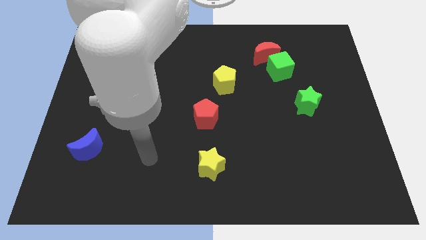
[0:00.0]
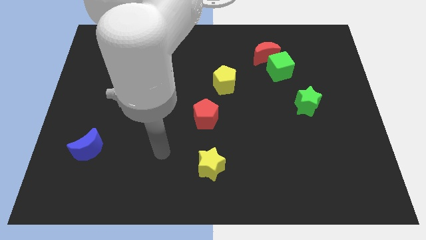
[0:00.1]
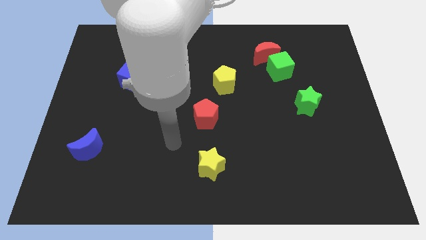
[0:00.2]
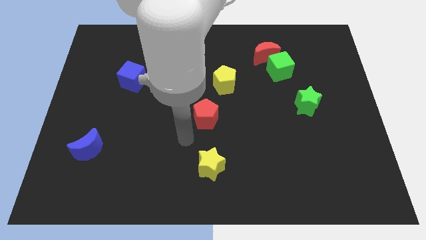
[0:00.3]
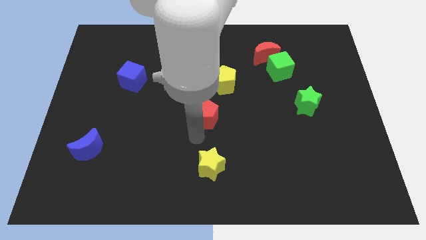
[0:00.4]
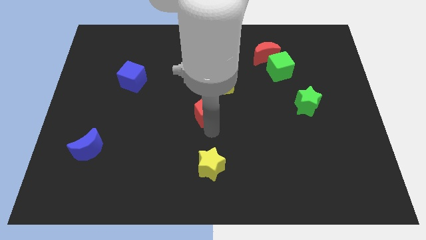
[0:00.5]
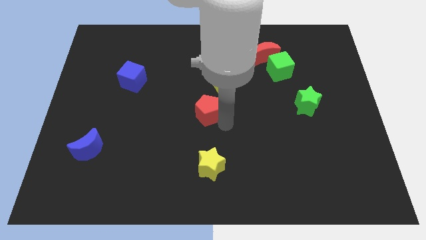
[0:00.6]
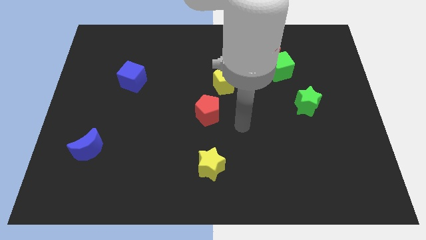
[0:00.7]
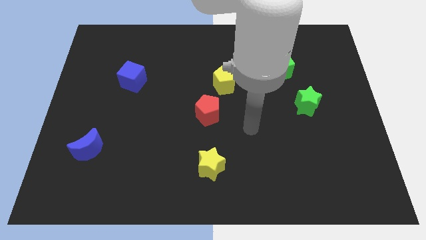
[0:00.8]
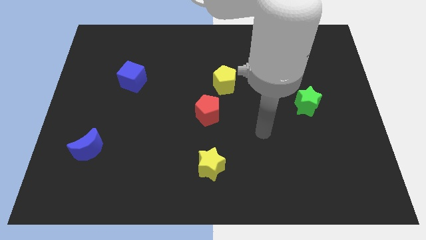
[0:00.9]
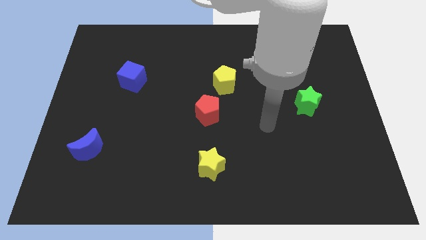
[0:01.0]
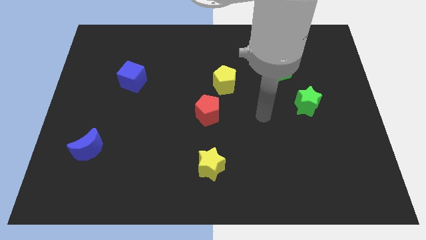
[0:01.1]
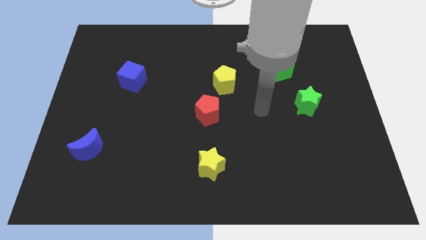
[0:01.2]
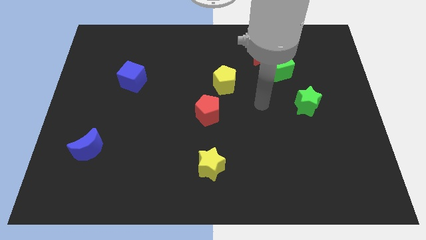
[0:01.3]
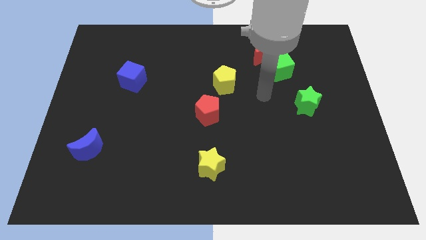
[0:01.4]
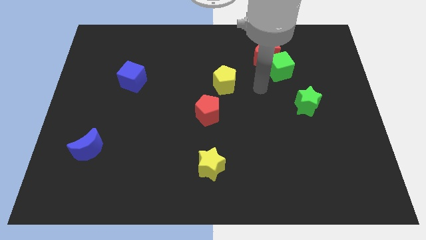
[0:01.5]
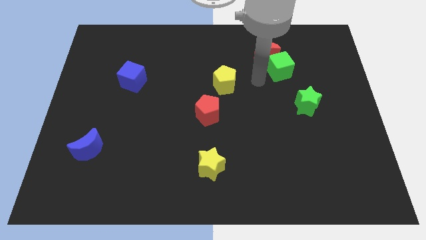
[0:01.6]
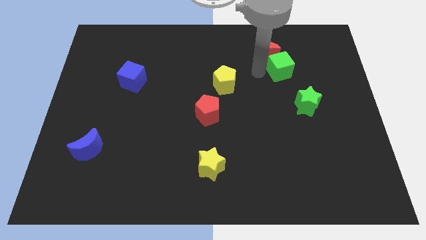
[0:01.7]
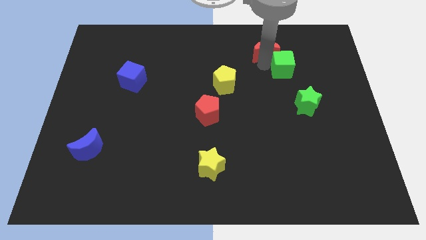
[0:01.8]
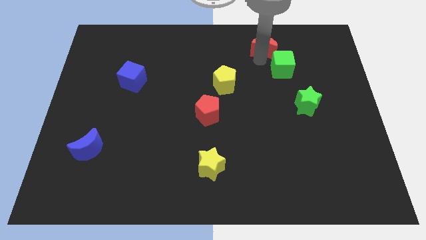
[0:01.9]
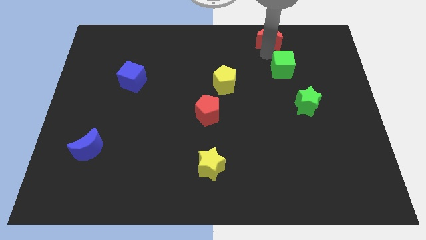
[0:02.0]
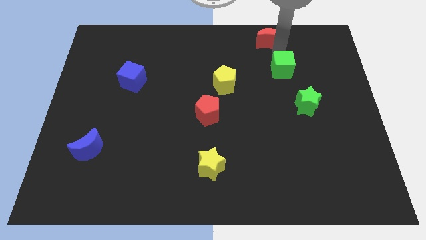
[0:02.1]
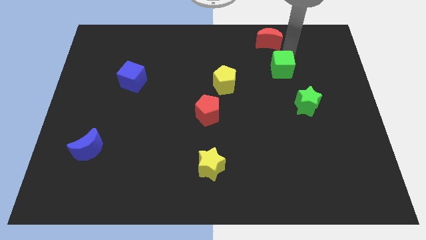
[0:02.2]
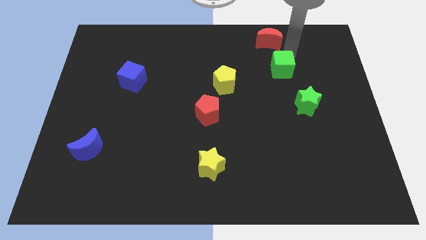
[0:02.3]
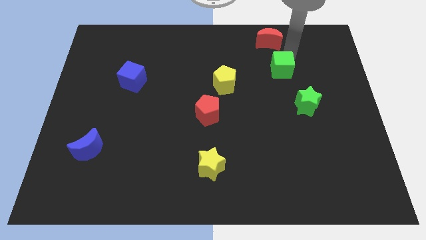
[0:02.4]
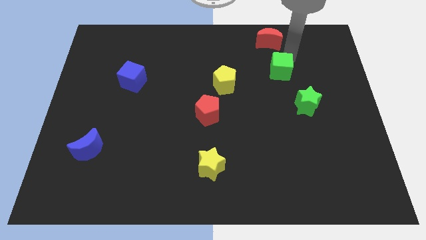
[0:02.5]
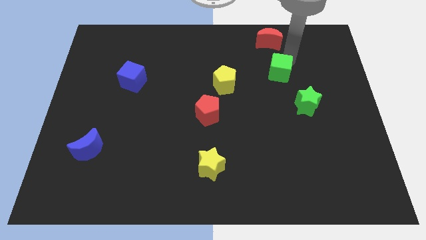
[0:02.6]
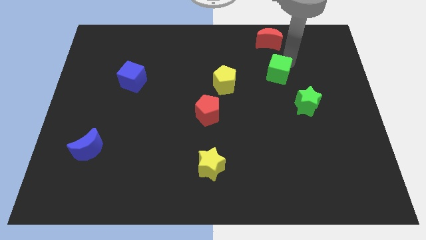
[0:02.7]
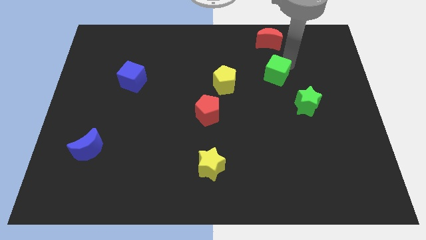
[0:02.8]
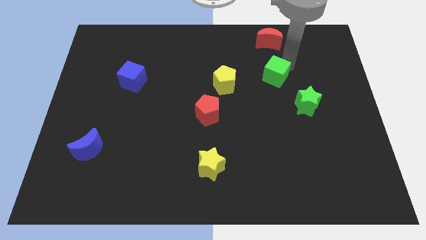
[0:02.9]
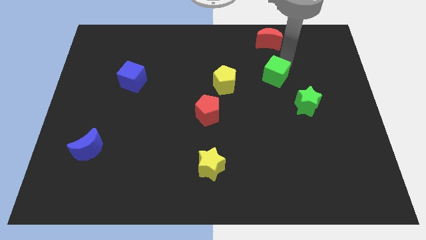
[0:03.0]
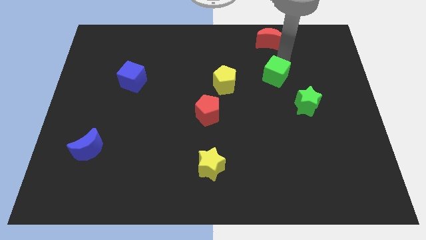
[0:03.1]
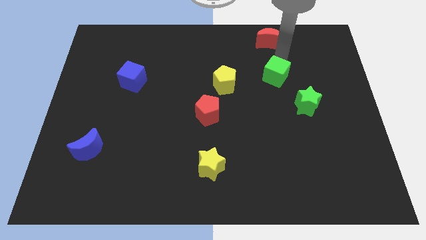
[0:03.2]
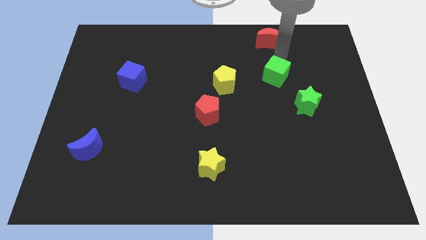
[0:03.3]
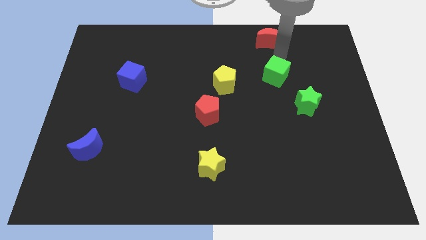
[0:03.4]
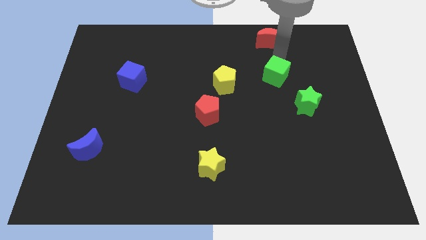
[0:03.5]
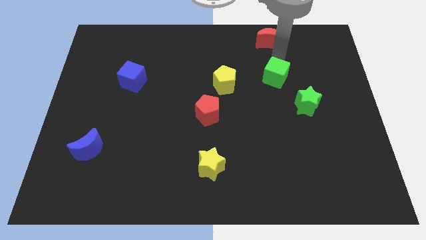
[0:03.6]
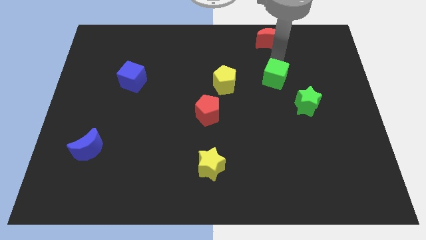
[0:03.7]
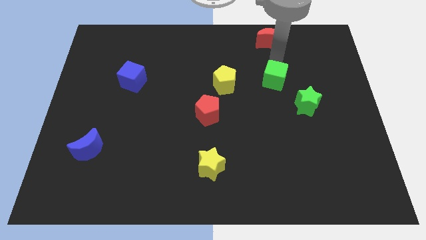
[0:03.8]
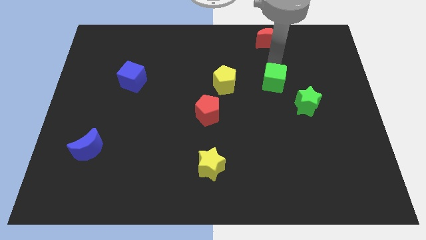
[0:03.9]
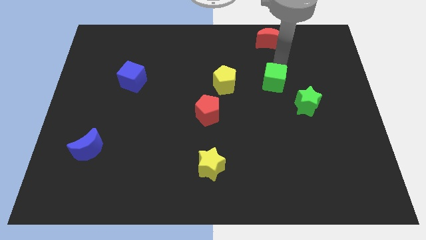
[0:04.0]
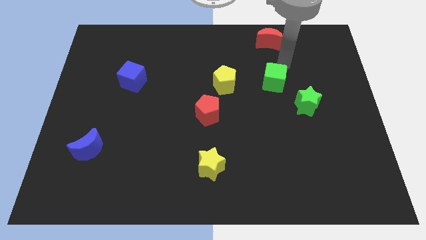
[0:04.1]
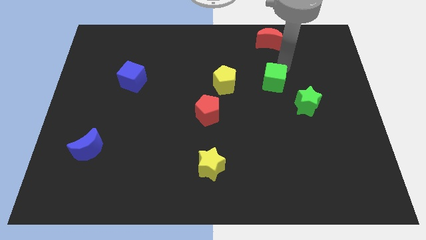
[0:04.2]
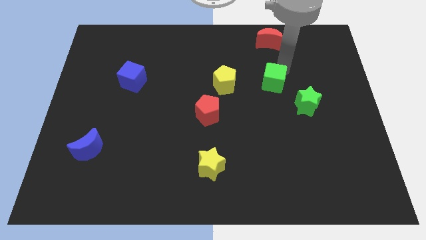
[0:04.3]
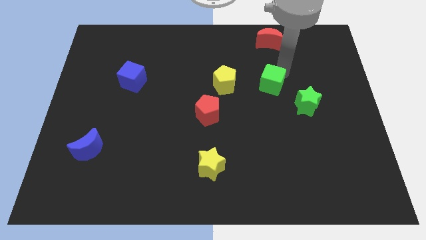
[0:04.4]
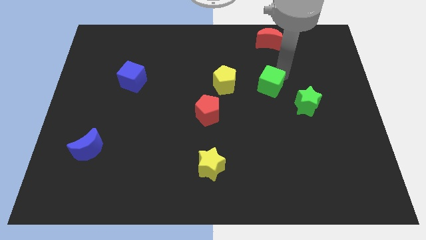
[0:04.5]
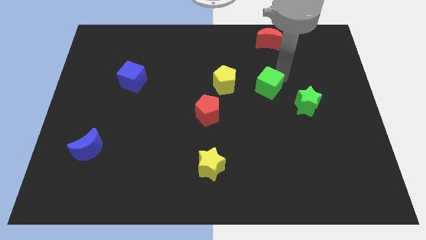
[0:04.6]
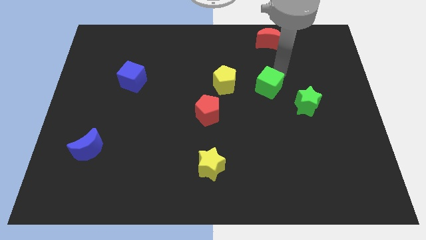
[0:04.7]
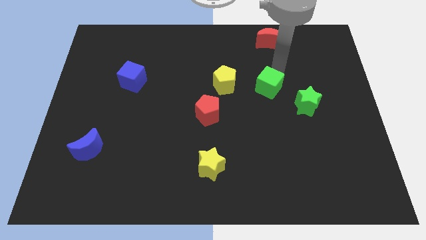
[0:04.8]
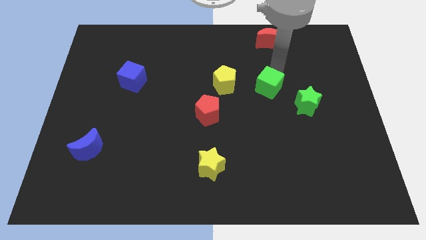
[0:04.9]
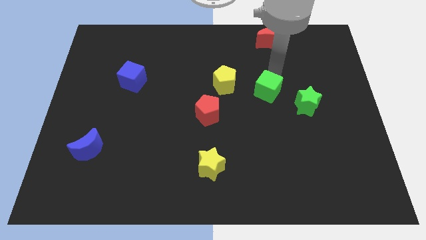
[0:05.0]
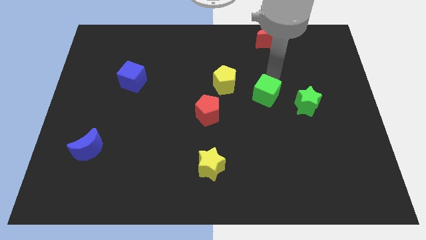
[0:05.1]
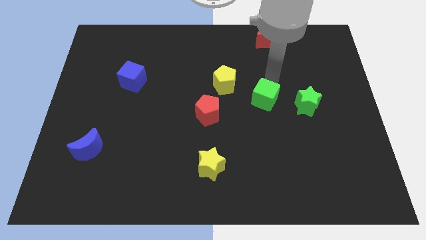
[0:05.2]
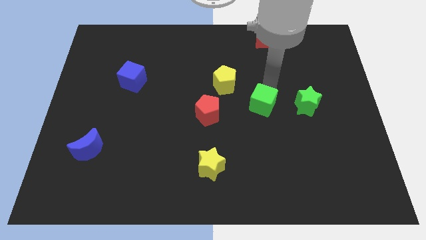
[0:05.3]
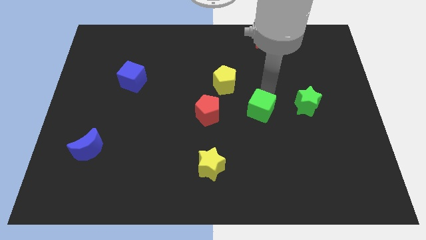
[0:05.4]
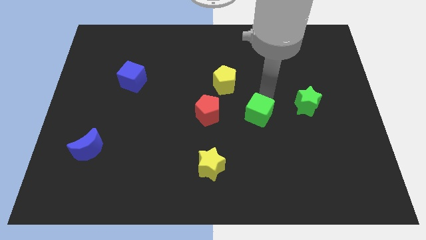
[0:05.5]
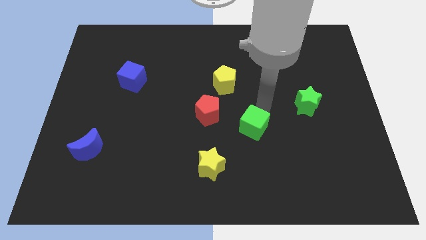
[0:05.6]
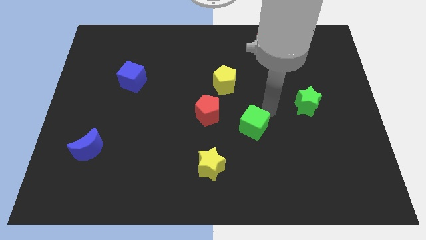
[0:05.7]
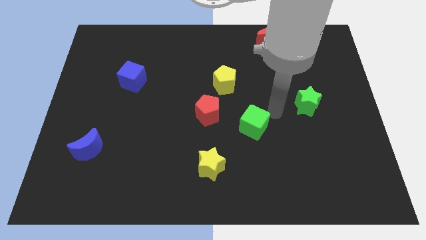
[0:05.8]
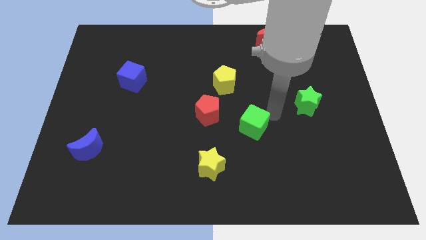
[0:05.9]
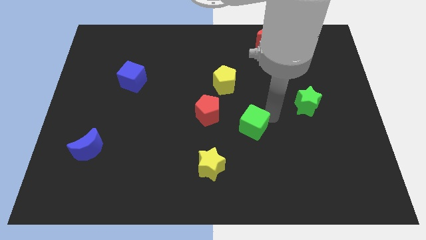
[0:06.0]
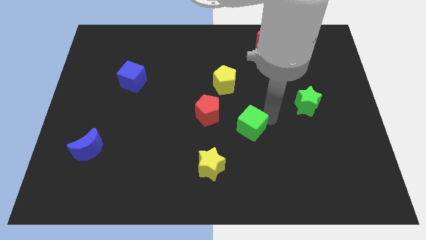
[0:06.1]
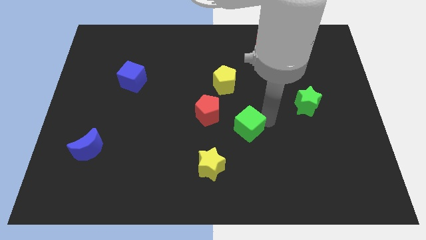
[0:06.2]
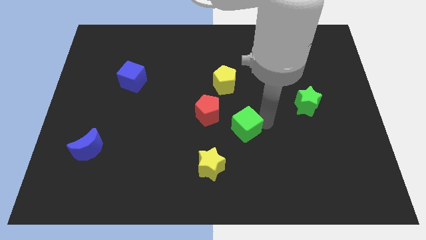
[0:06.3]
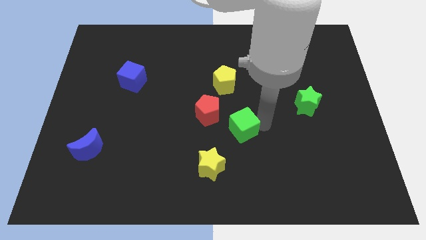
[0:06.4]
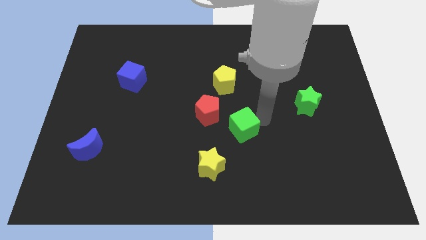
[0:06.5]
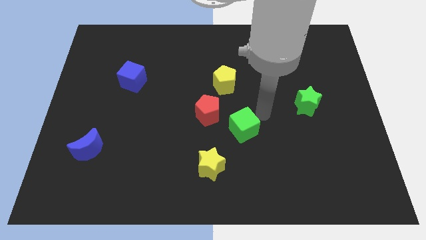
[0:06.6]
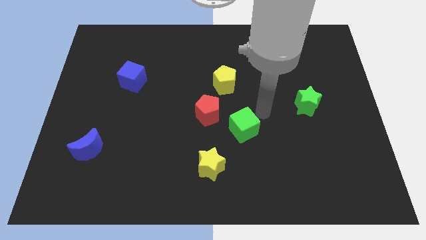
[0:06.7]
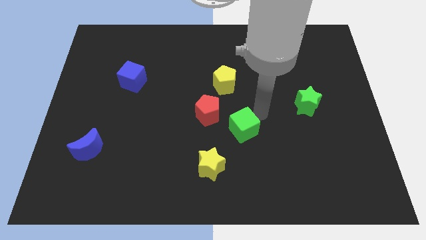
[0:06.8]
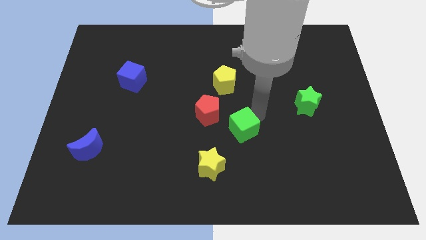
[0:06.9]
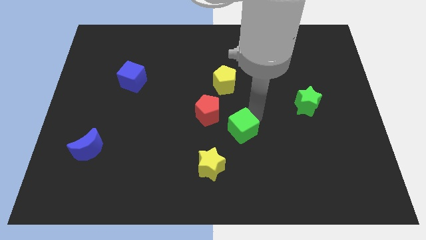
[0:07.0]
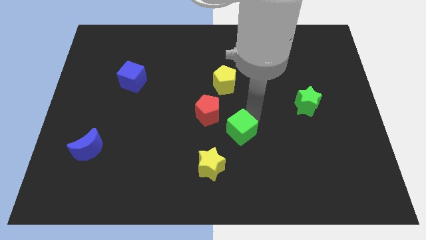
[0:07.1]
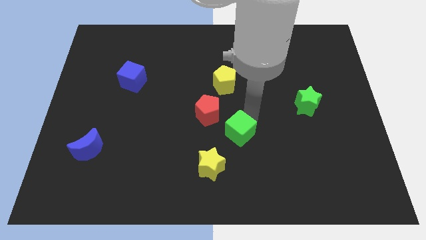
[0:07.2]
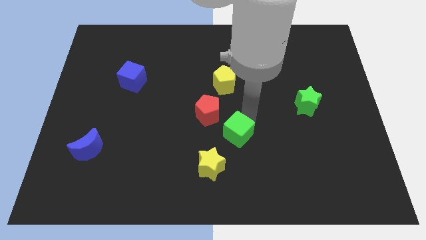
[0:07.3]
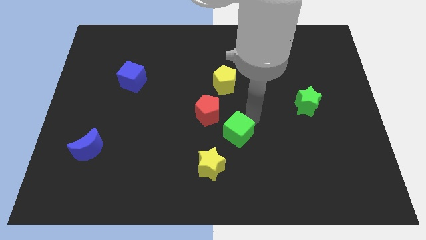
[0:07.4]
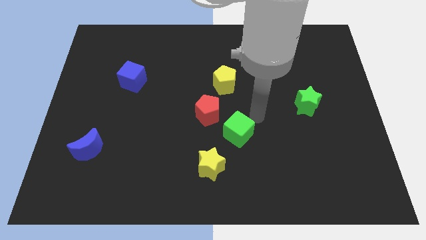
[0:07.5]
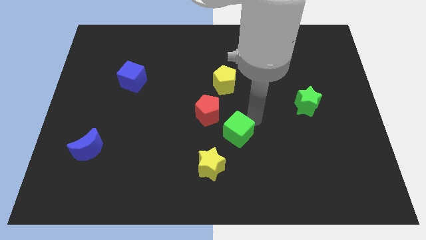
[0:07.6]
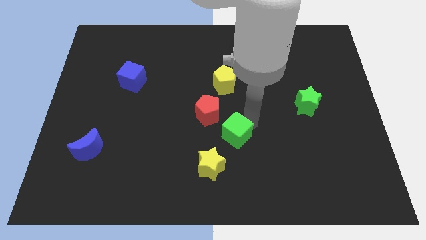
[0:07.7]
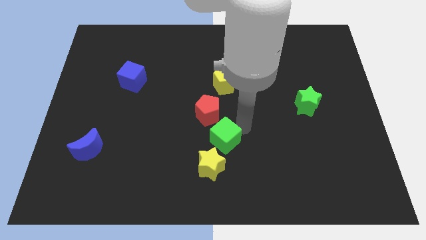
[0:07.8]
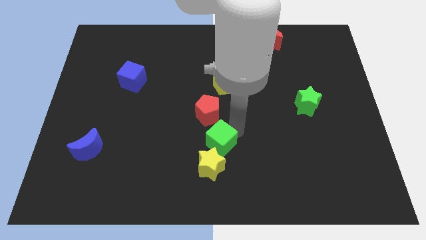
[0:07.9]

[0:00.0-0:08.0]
move the green cube close to the yellow star
